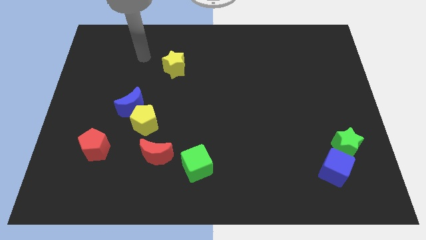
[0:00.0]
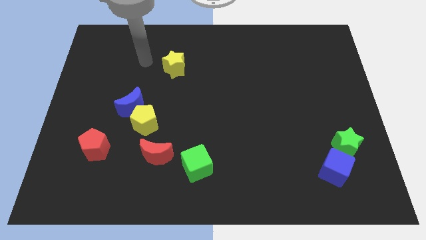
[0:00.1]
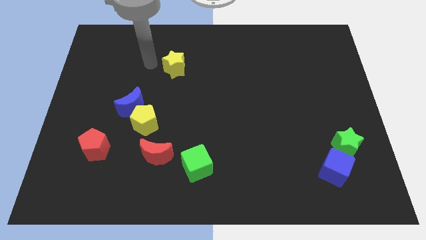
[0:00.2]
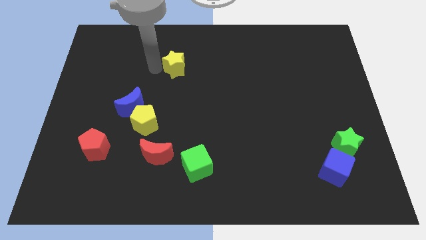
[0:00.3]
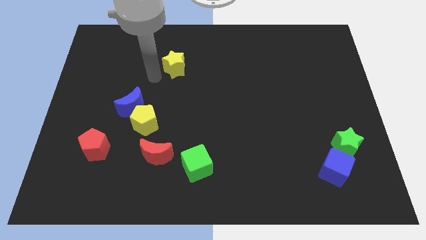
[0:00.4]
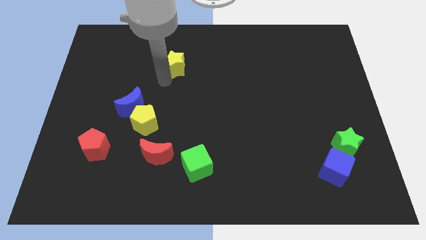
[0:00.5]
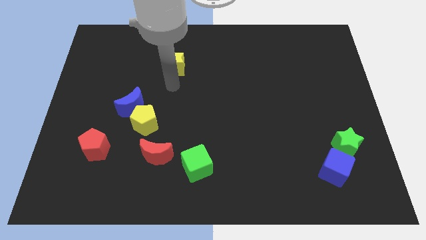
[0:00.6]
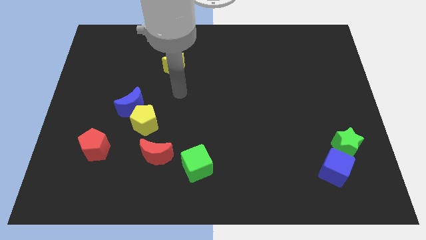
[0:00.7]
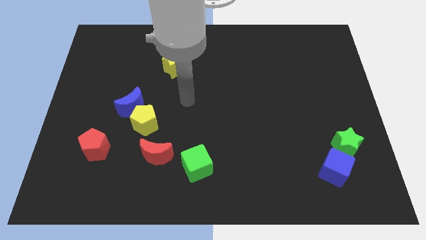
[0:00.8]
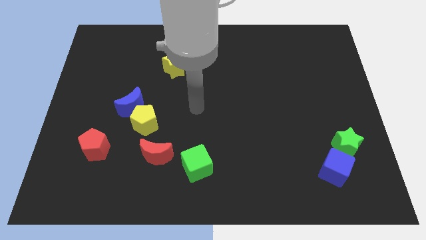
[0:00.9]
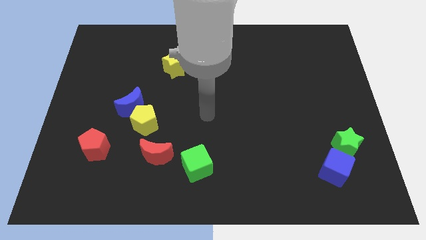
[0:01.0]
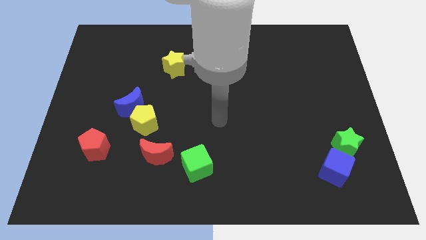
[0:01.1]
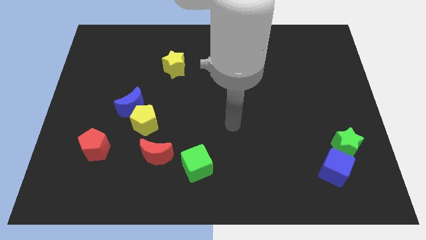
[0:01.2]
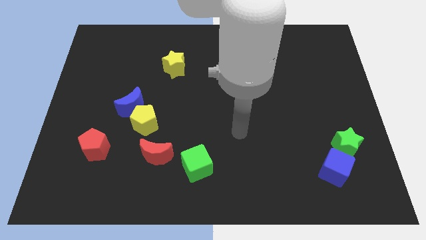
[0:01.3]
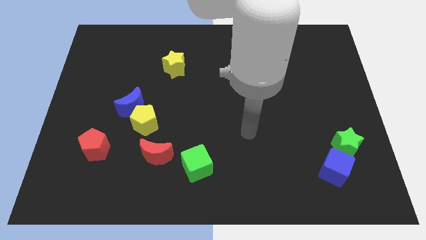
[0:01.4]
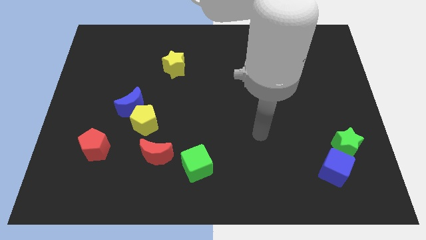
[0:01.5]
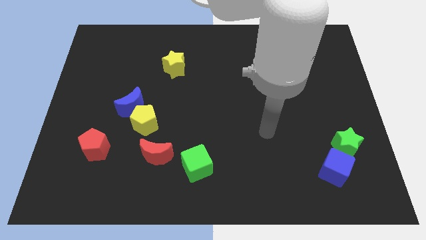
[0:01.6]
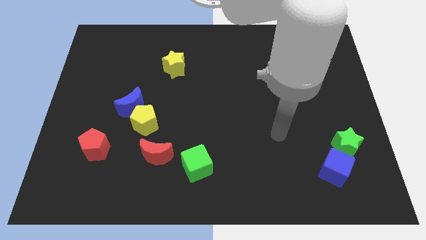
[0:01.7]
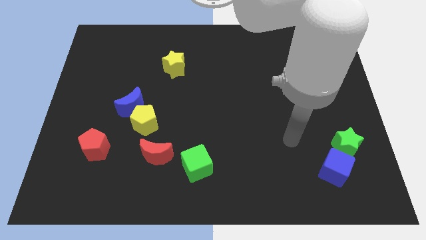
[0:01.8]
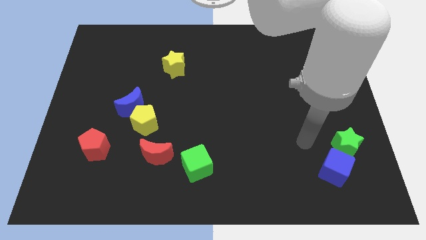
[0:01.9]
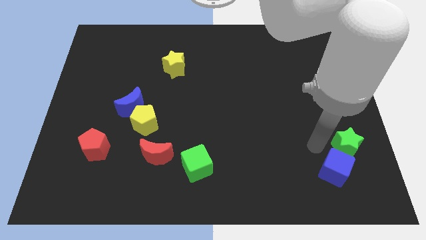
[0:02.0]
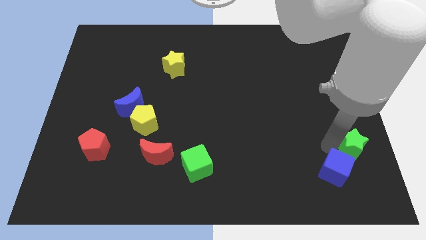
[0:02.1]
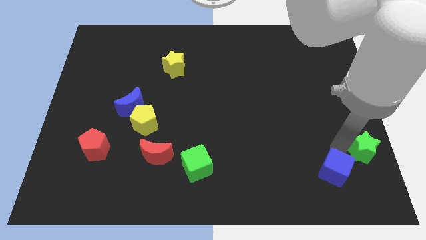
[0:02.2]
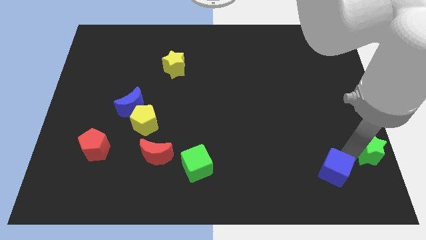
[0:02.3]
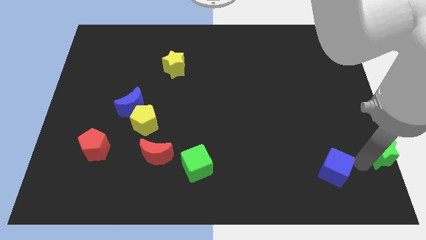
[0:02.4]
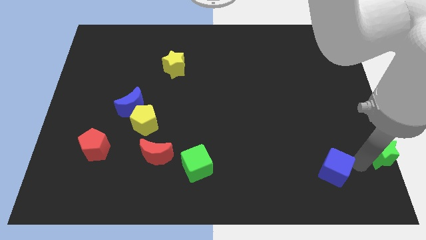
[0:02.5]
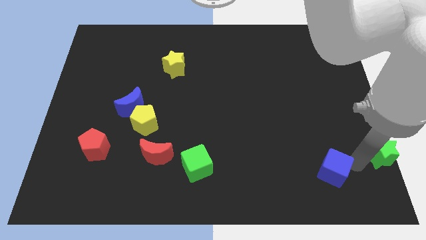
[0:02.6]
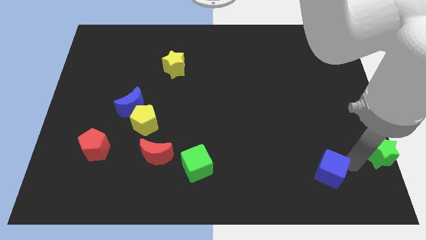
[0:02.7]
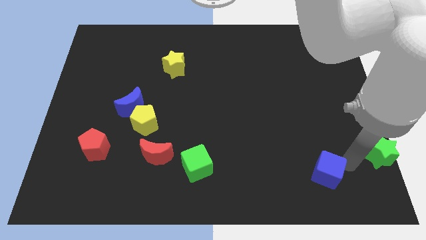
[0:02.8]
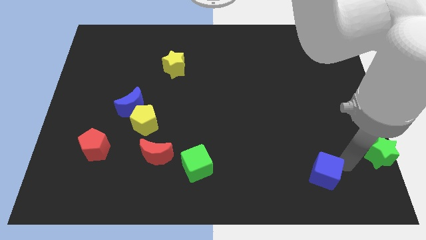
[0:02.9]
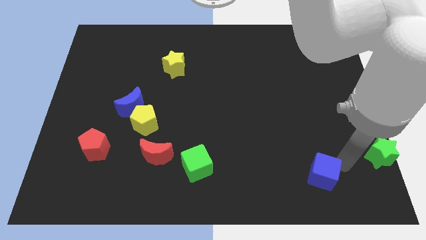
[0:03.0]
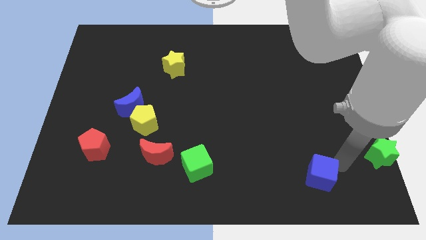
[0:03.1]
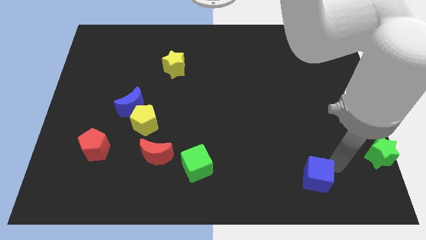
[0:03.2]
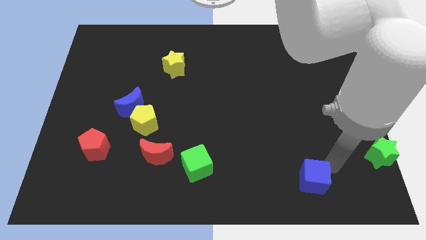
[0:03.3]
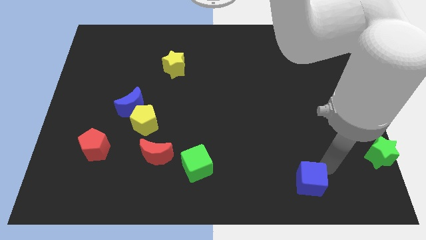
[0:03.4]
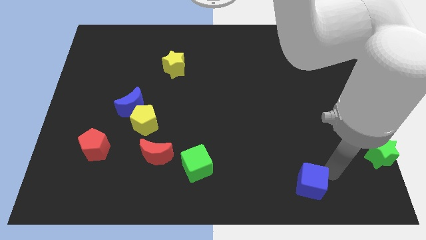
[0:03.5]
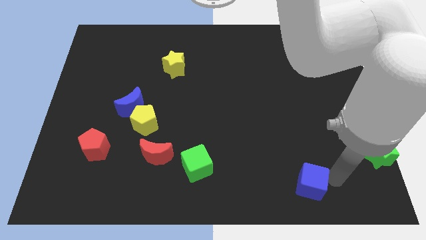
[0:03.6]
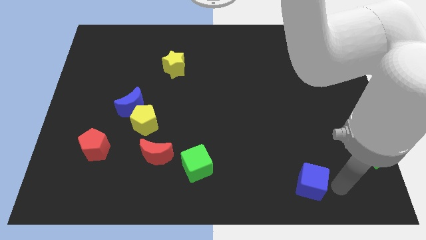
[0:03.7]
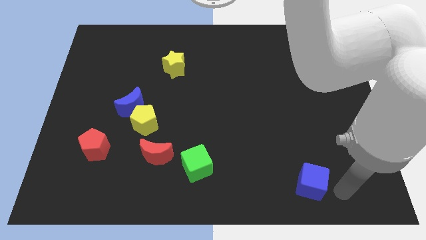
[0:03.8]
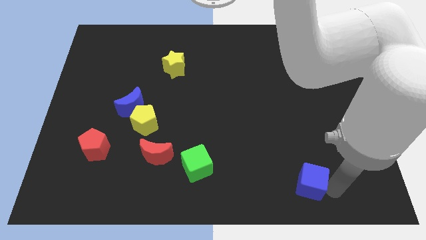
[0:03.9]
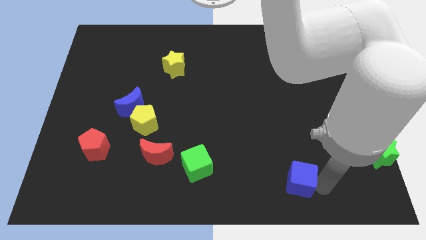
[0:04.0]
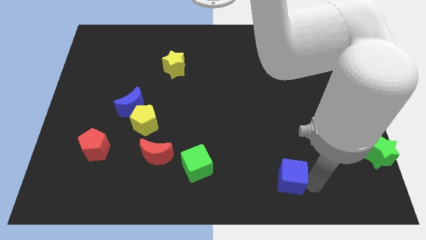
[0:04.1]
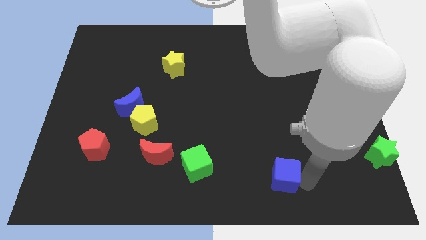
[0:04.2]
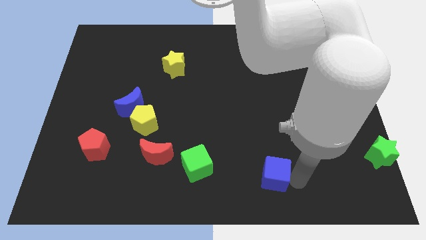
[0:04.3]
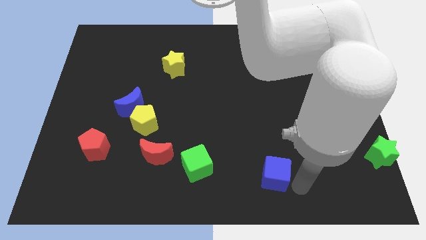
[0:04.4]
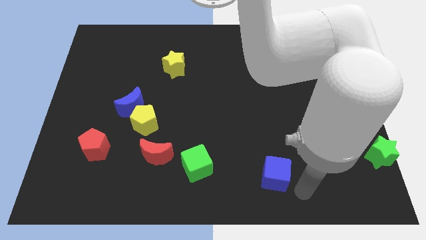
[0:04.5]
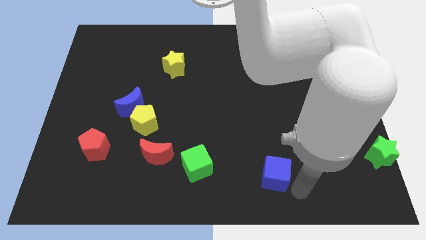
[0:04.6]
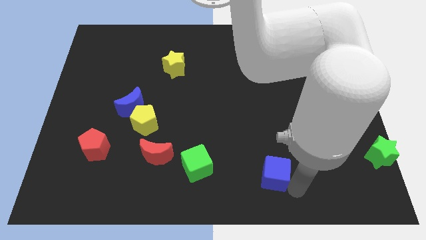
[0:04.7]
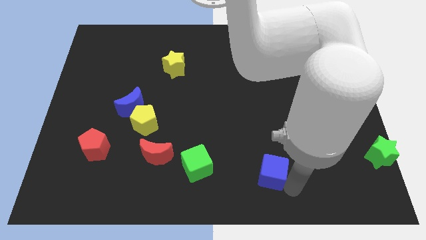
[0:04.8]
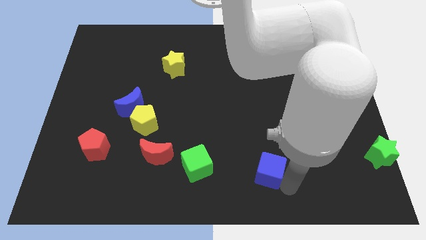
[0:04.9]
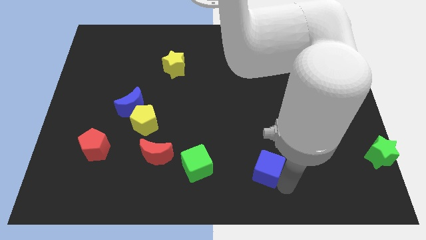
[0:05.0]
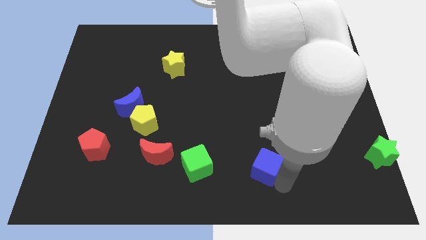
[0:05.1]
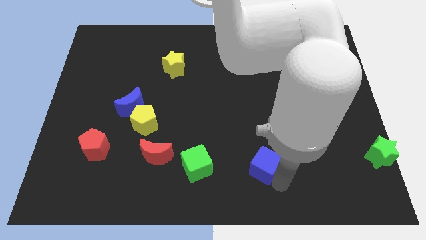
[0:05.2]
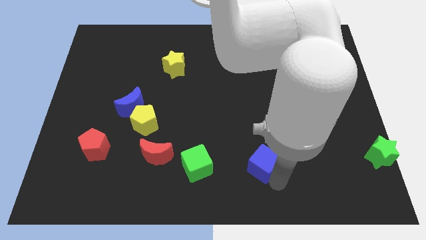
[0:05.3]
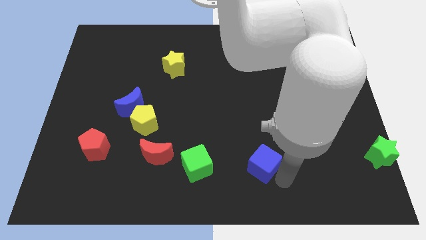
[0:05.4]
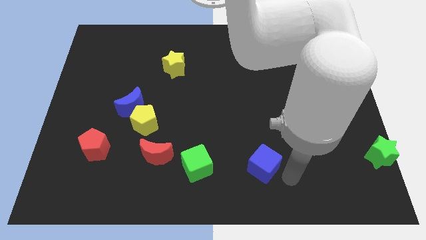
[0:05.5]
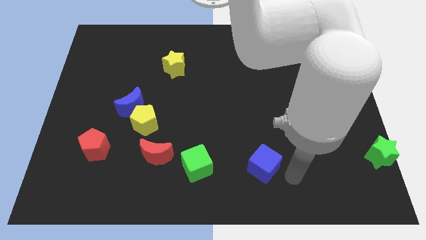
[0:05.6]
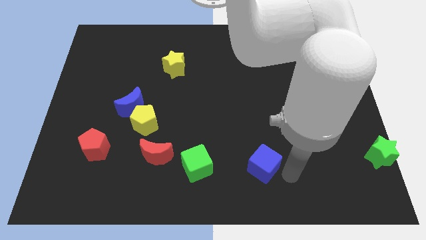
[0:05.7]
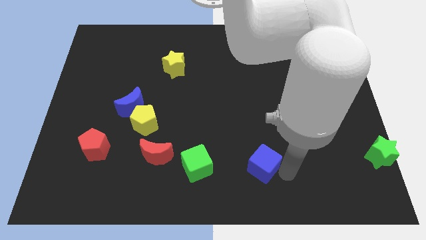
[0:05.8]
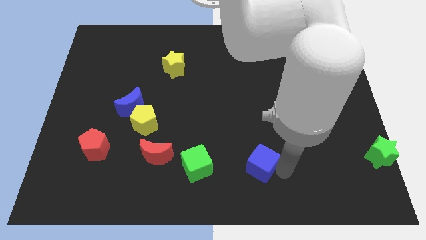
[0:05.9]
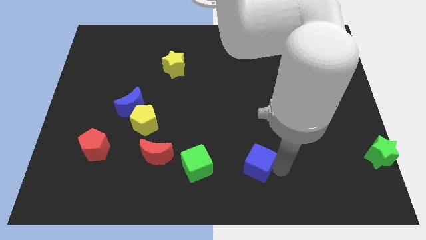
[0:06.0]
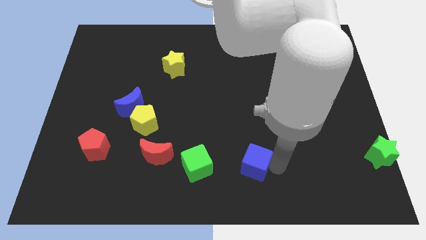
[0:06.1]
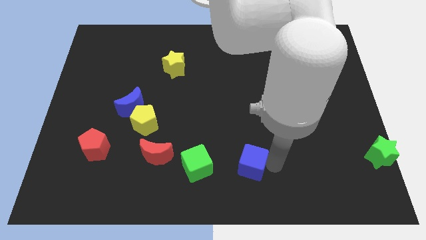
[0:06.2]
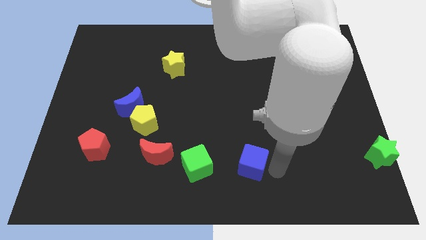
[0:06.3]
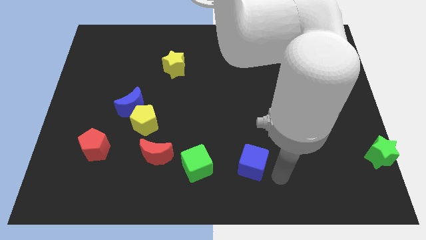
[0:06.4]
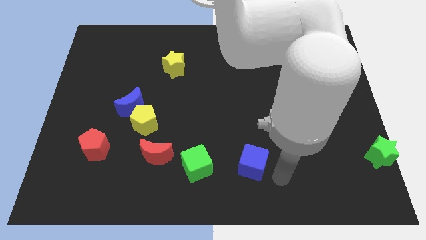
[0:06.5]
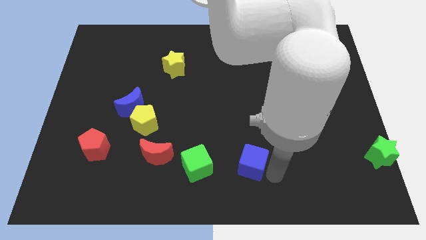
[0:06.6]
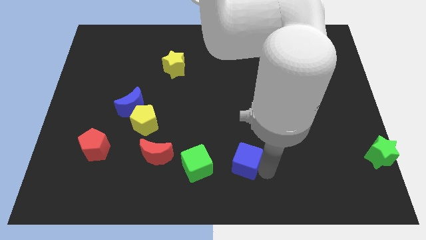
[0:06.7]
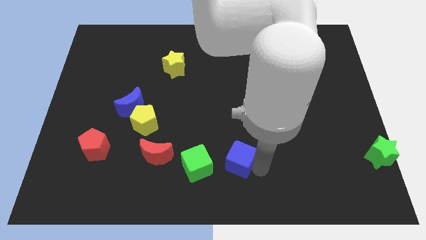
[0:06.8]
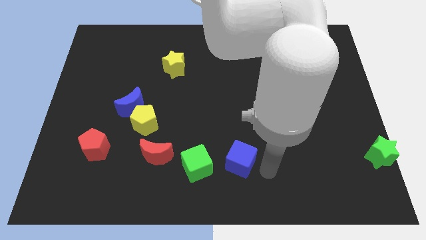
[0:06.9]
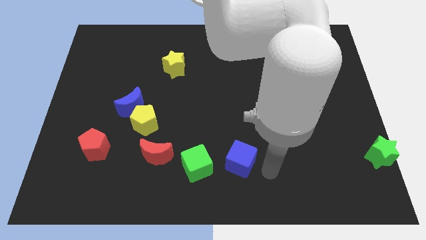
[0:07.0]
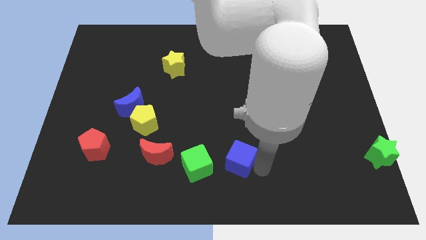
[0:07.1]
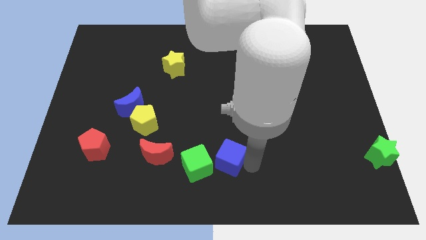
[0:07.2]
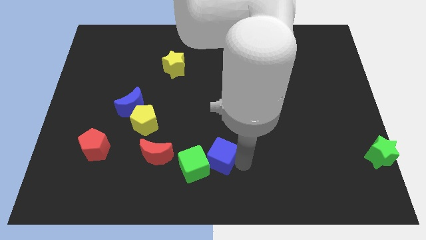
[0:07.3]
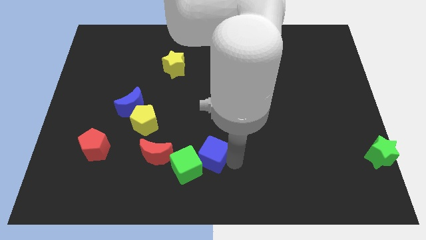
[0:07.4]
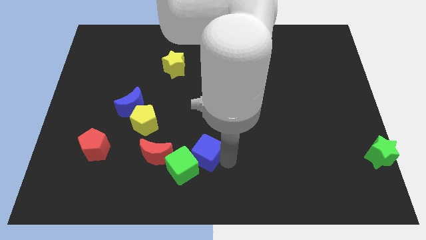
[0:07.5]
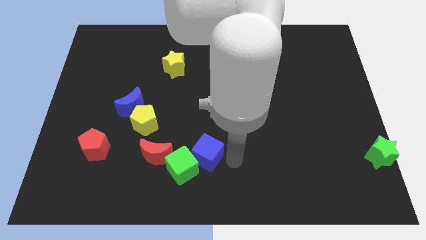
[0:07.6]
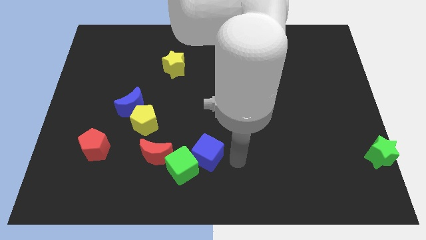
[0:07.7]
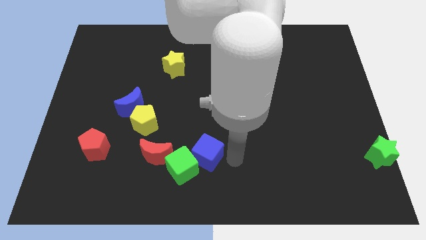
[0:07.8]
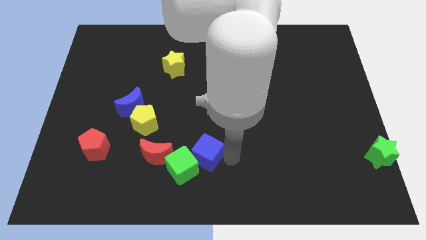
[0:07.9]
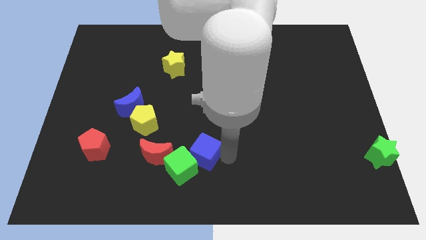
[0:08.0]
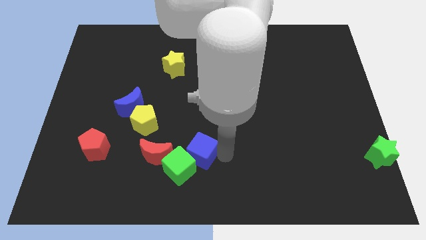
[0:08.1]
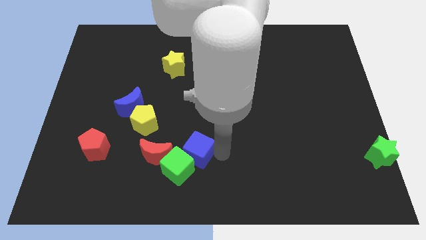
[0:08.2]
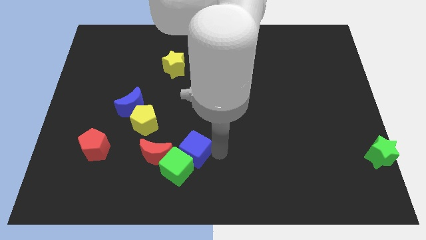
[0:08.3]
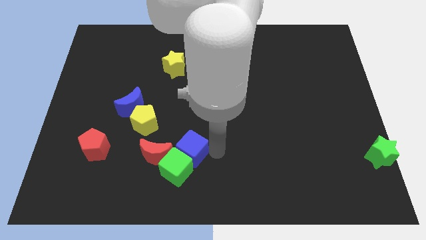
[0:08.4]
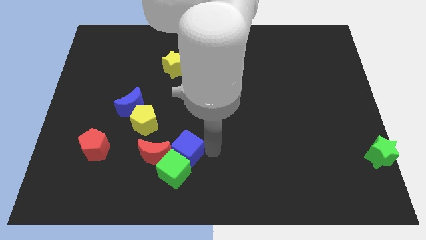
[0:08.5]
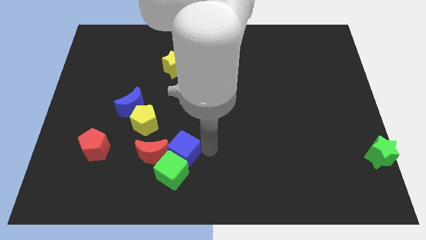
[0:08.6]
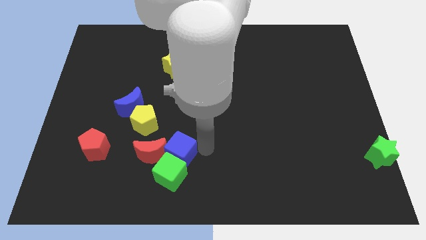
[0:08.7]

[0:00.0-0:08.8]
slide the blue cube close to the red moon
